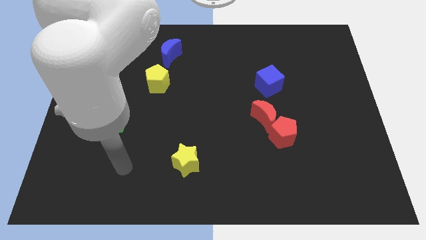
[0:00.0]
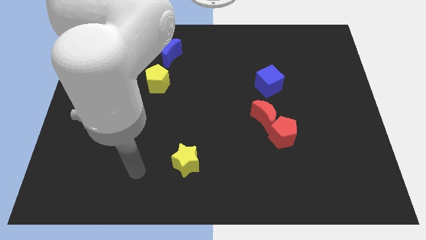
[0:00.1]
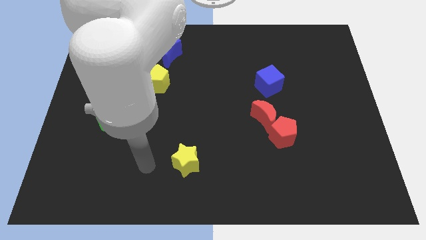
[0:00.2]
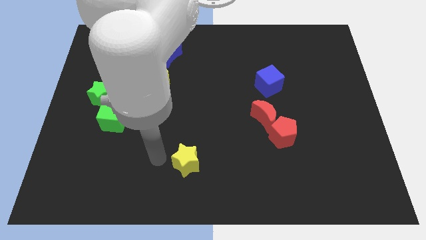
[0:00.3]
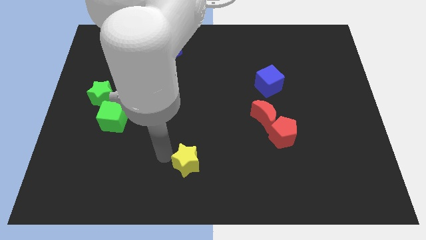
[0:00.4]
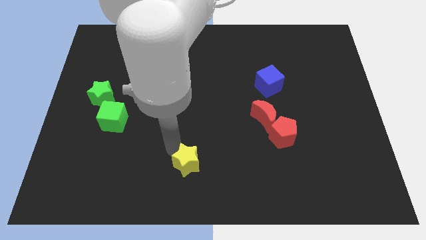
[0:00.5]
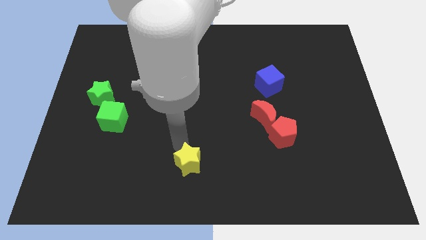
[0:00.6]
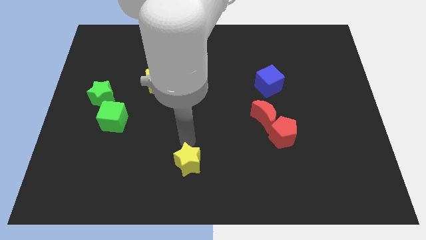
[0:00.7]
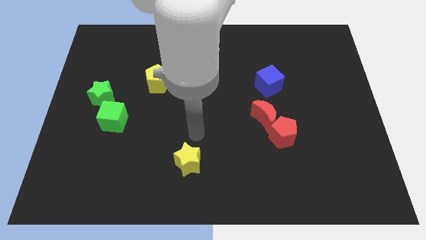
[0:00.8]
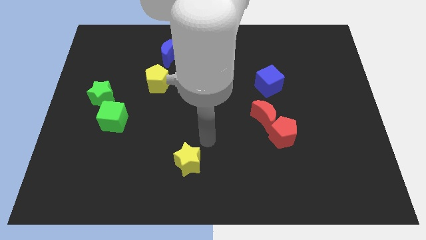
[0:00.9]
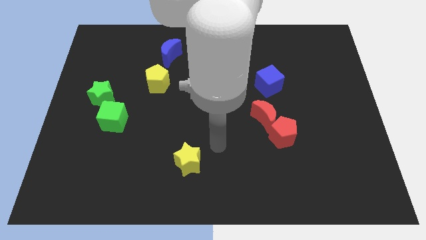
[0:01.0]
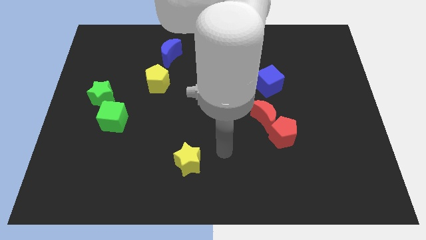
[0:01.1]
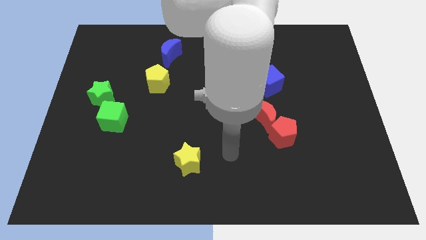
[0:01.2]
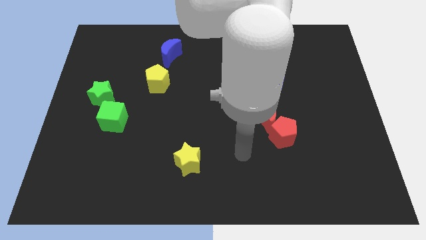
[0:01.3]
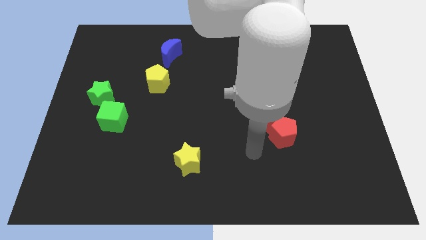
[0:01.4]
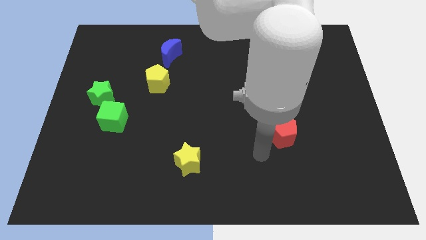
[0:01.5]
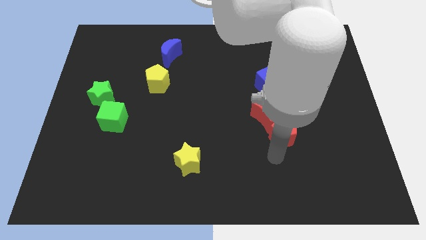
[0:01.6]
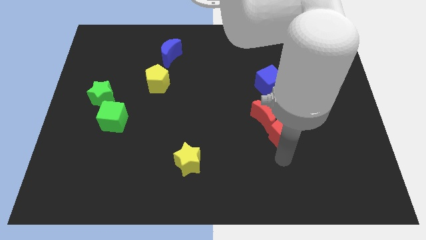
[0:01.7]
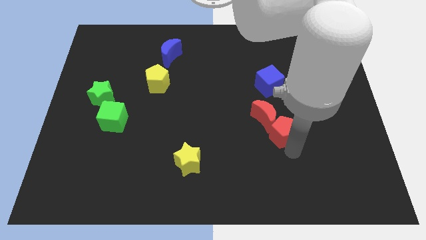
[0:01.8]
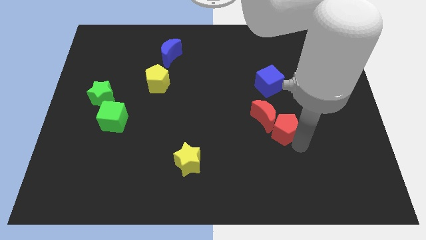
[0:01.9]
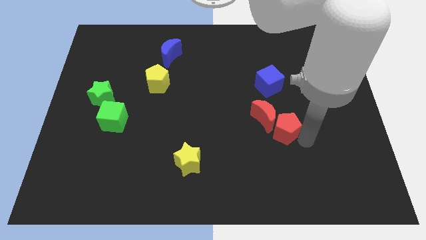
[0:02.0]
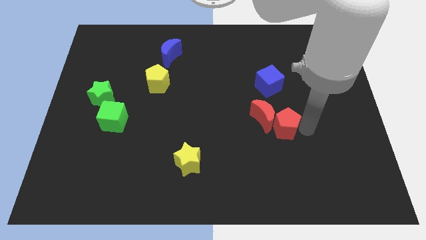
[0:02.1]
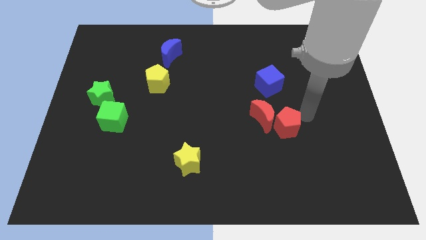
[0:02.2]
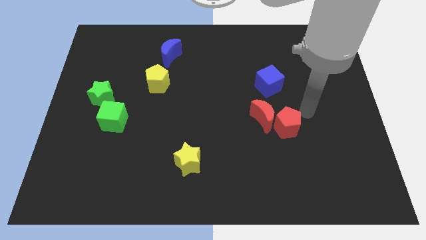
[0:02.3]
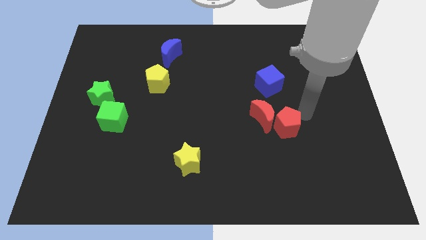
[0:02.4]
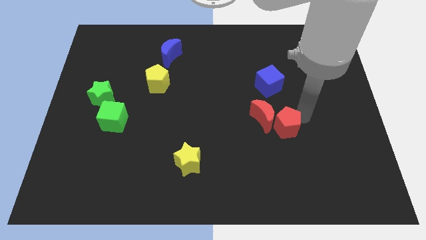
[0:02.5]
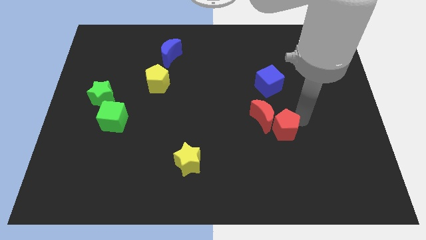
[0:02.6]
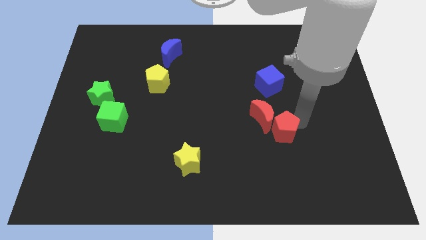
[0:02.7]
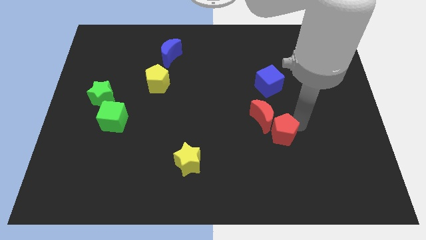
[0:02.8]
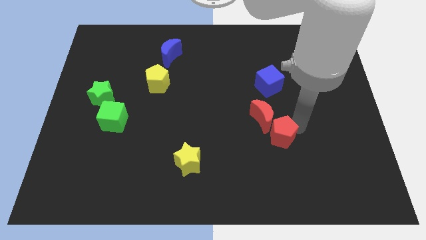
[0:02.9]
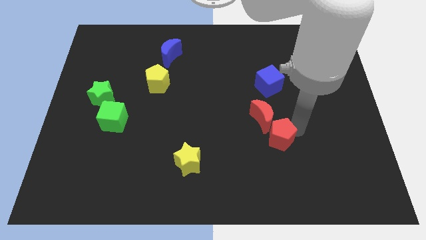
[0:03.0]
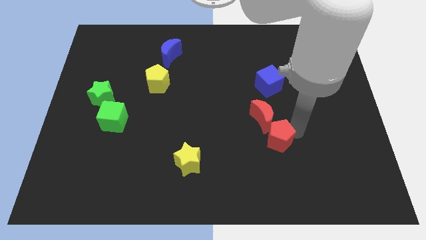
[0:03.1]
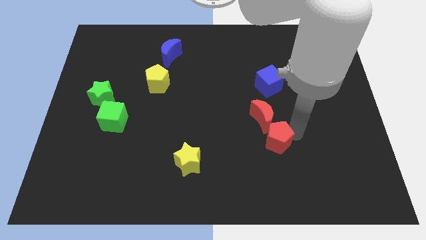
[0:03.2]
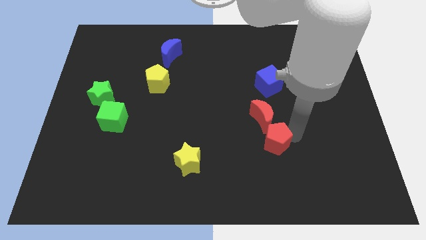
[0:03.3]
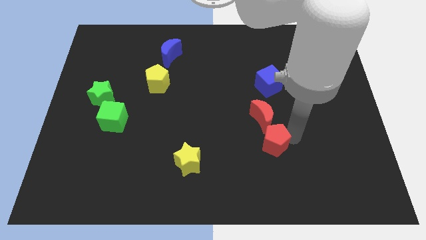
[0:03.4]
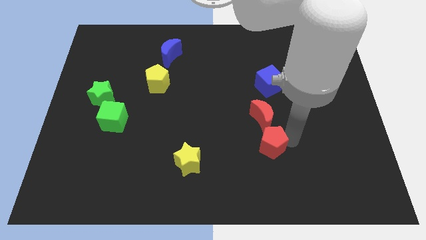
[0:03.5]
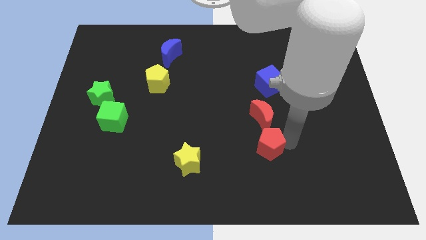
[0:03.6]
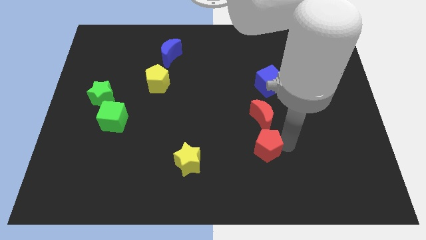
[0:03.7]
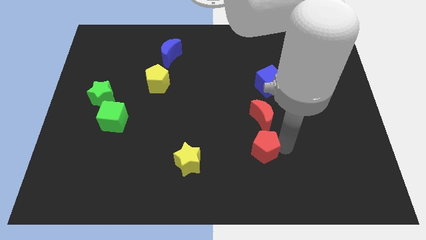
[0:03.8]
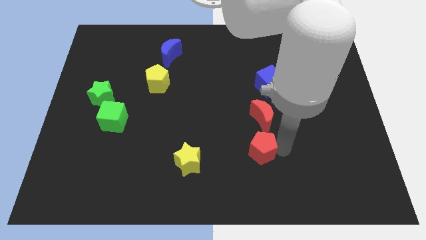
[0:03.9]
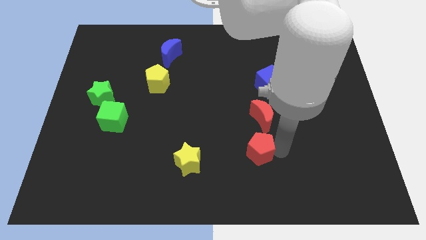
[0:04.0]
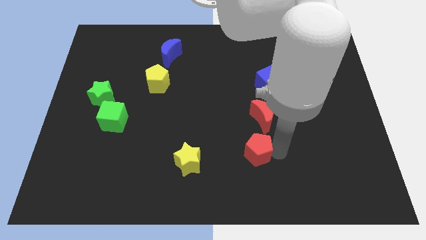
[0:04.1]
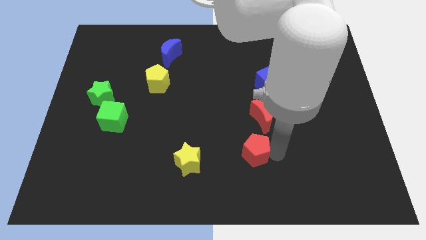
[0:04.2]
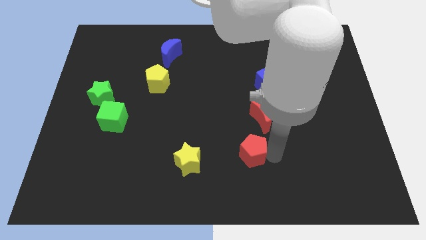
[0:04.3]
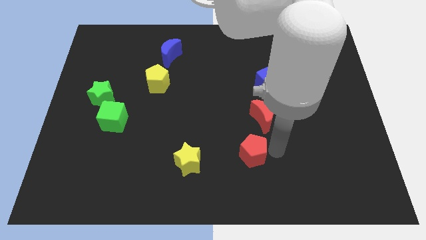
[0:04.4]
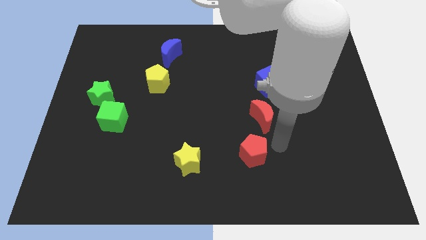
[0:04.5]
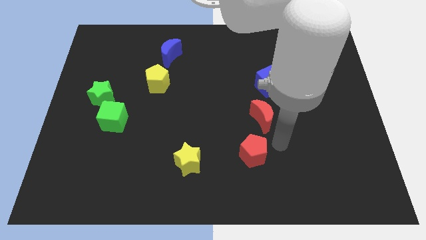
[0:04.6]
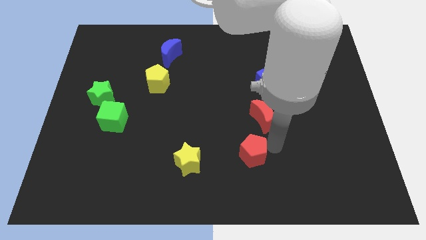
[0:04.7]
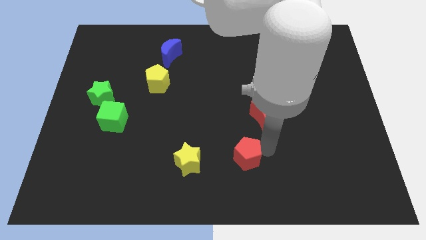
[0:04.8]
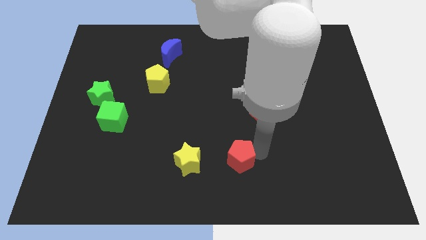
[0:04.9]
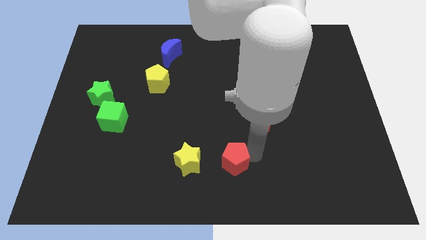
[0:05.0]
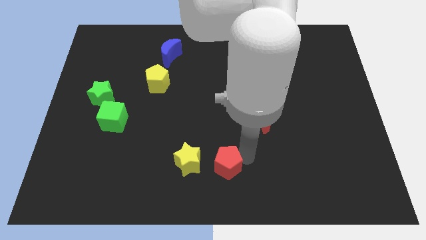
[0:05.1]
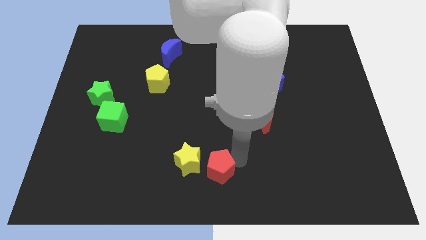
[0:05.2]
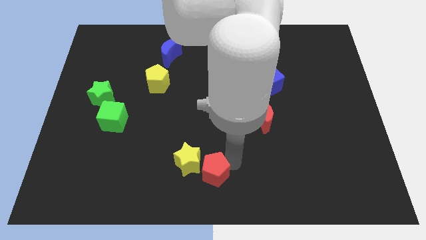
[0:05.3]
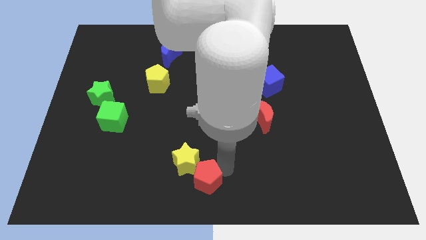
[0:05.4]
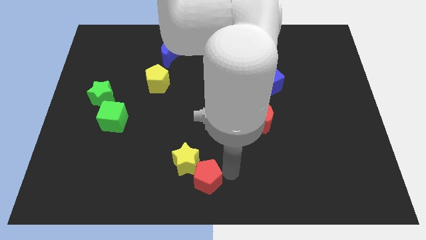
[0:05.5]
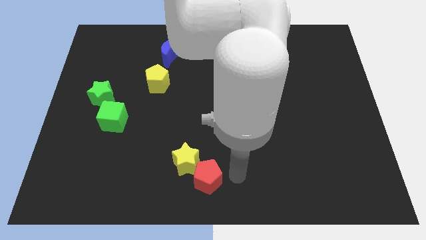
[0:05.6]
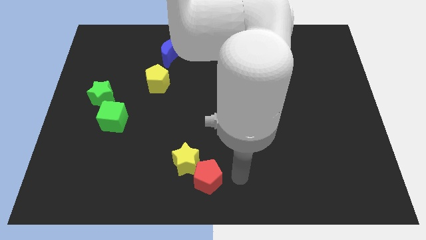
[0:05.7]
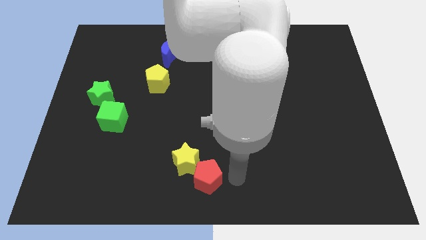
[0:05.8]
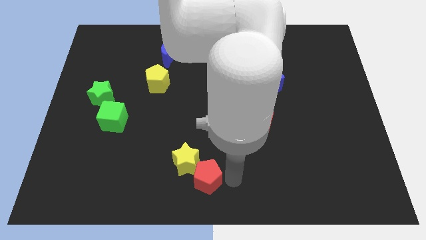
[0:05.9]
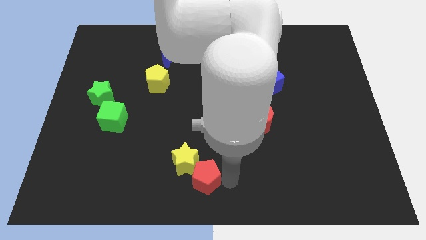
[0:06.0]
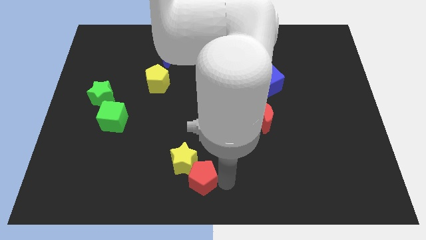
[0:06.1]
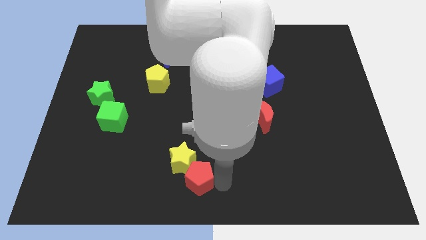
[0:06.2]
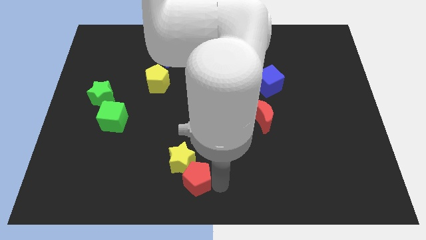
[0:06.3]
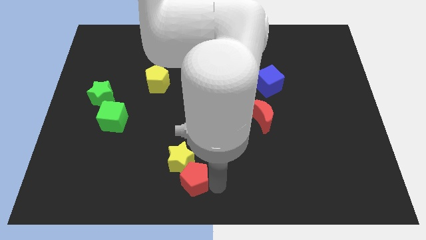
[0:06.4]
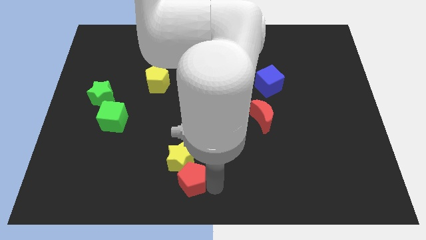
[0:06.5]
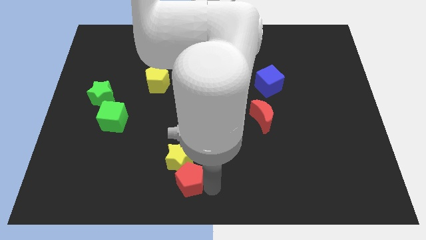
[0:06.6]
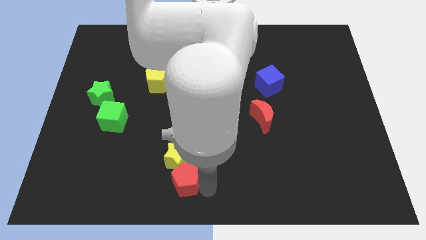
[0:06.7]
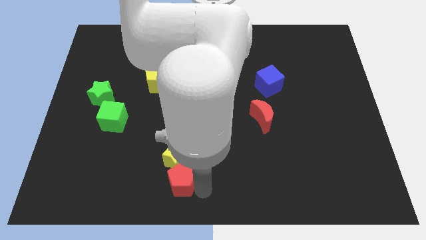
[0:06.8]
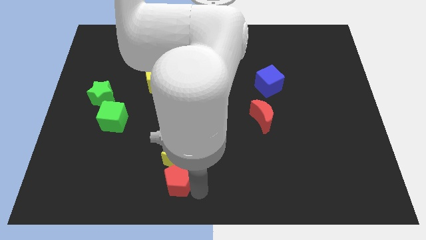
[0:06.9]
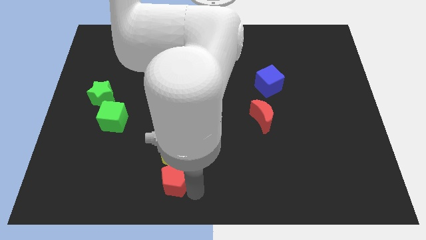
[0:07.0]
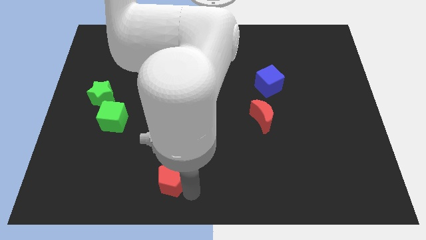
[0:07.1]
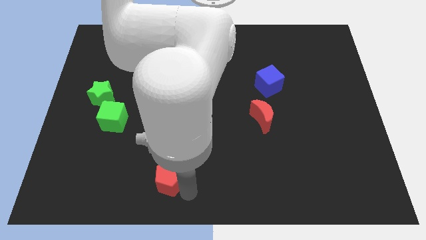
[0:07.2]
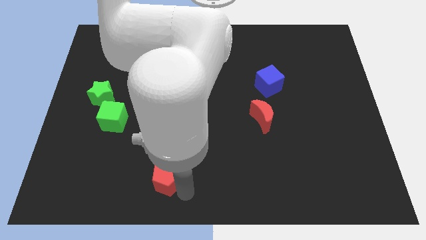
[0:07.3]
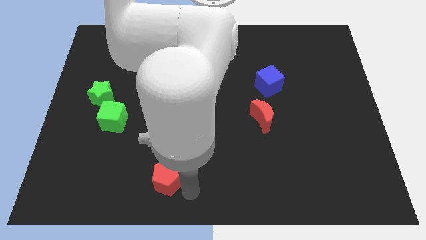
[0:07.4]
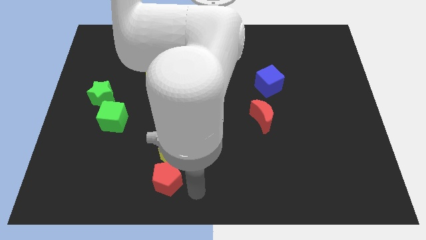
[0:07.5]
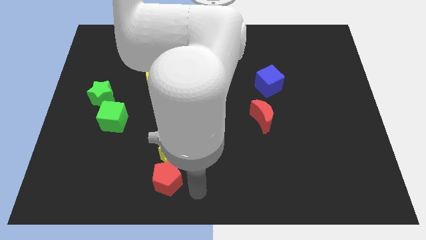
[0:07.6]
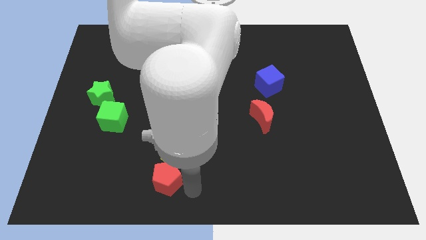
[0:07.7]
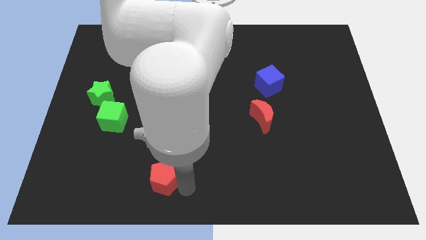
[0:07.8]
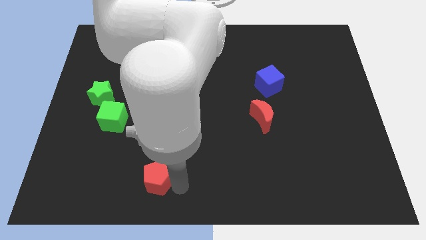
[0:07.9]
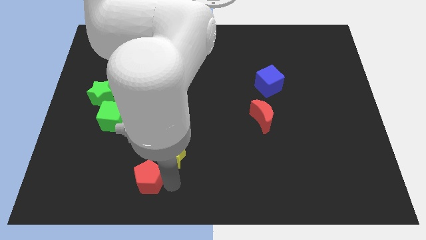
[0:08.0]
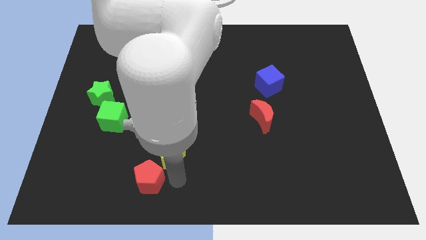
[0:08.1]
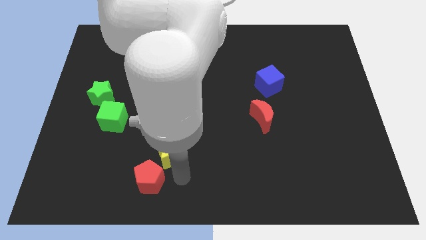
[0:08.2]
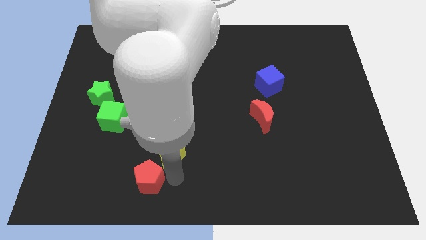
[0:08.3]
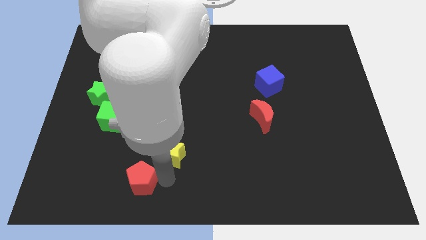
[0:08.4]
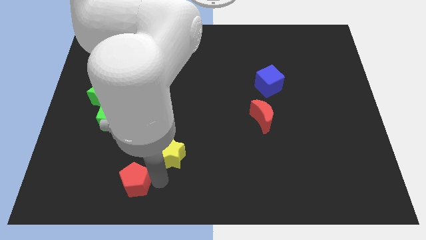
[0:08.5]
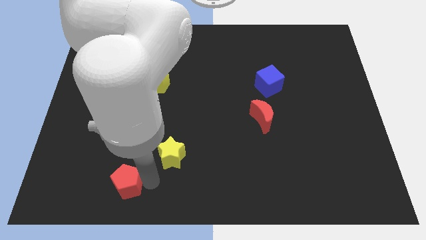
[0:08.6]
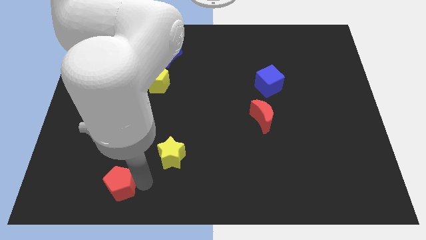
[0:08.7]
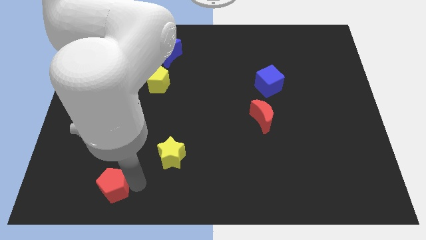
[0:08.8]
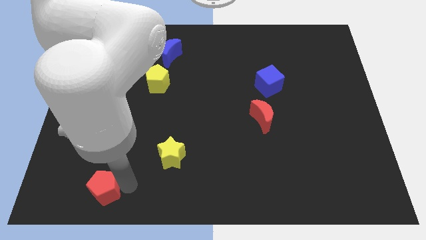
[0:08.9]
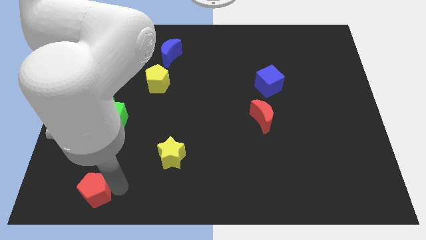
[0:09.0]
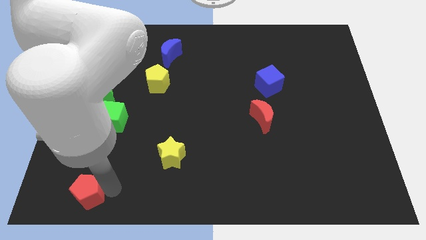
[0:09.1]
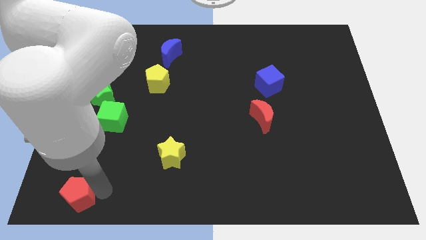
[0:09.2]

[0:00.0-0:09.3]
put the red pentagon to the bottom left of the board
